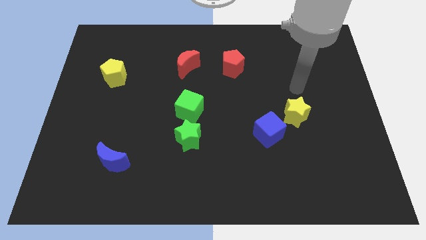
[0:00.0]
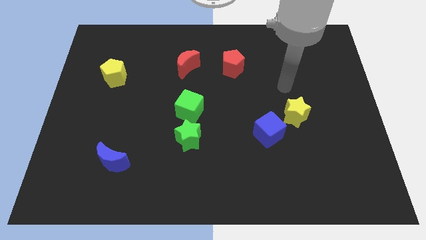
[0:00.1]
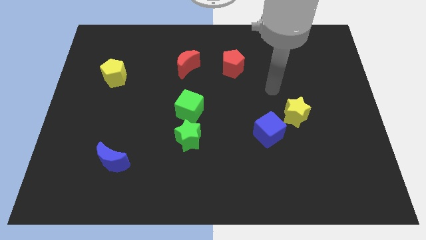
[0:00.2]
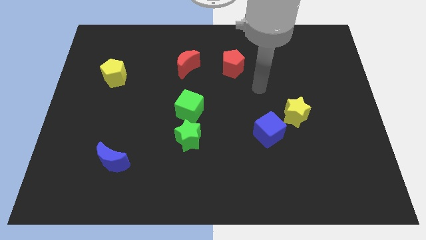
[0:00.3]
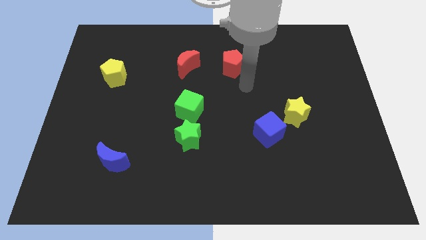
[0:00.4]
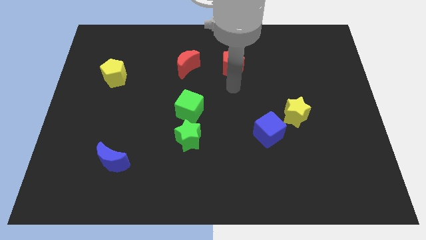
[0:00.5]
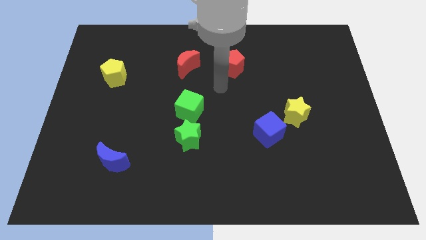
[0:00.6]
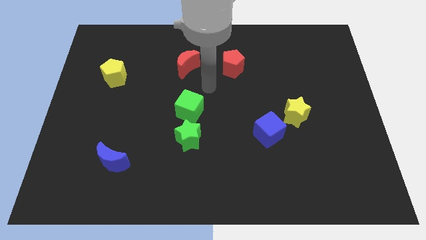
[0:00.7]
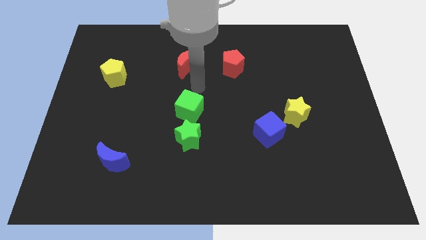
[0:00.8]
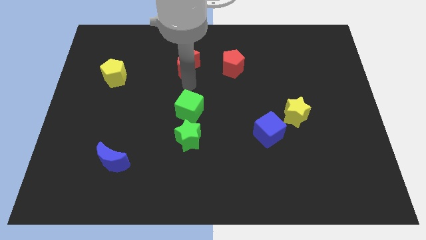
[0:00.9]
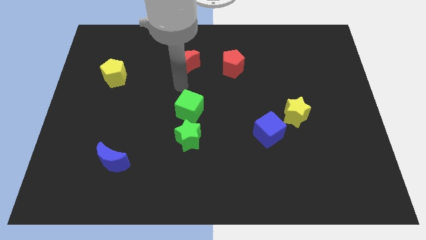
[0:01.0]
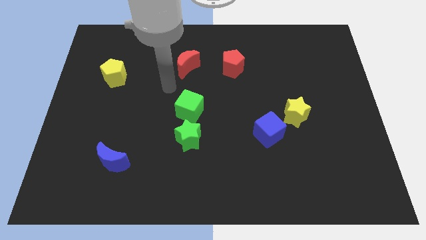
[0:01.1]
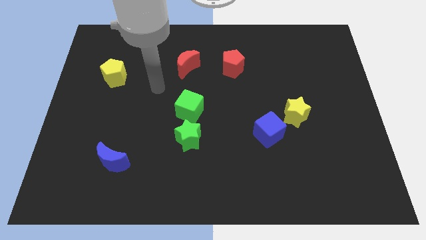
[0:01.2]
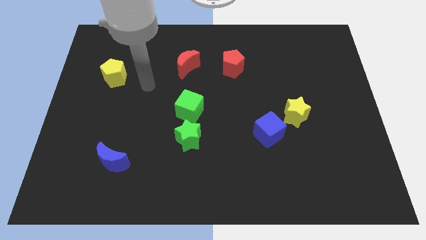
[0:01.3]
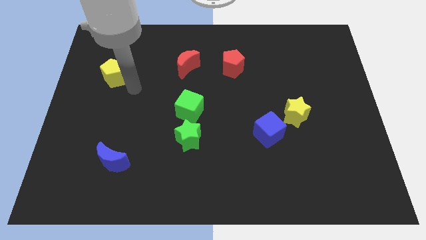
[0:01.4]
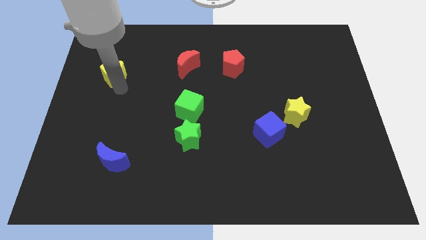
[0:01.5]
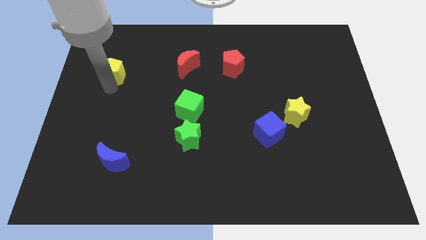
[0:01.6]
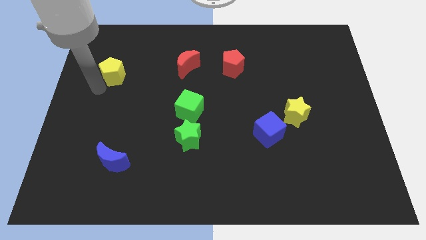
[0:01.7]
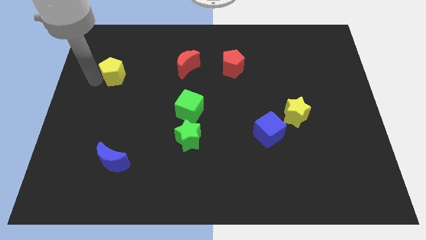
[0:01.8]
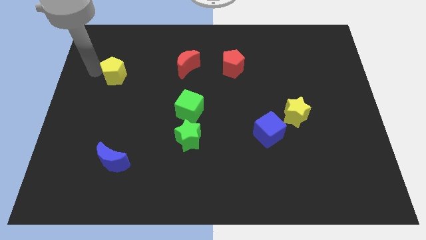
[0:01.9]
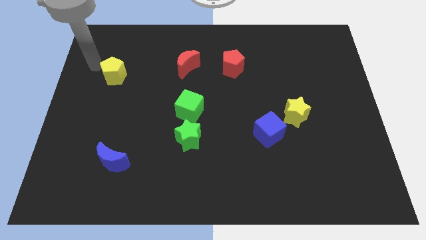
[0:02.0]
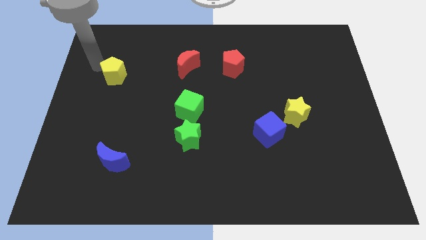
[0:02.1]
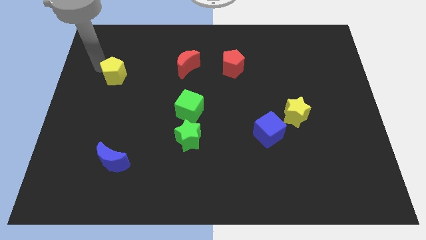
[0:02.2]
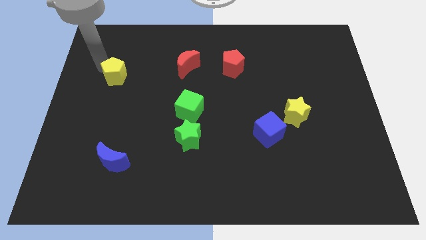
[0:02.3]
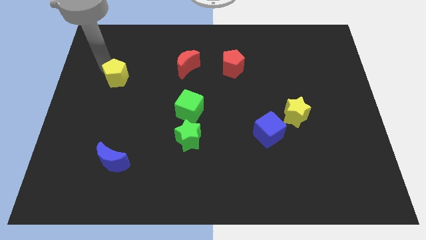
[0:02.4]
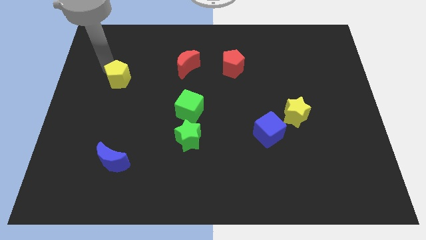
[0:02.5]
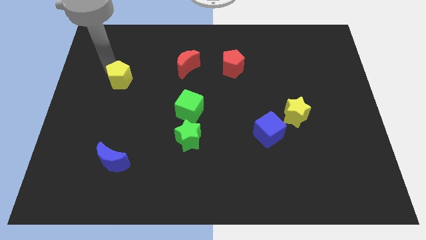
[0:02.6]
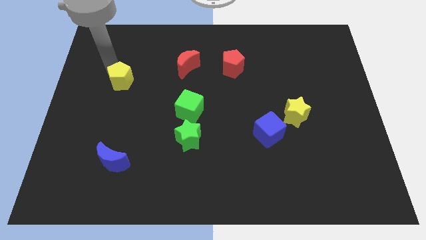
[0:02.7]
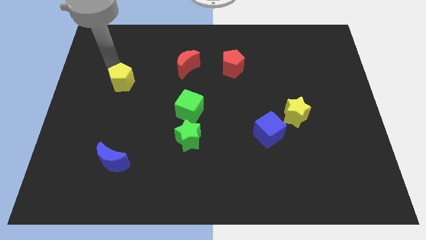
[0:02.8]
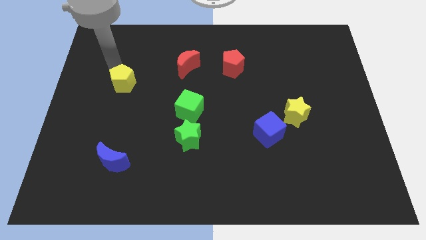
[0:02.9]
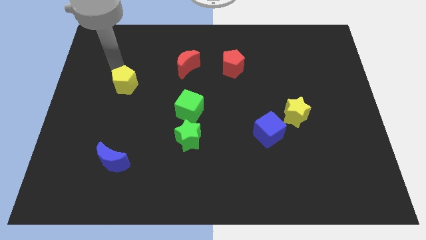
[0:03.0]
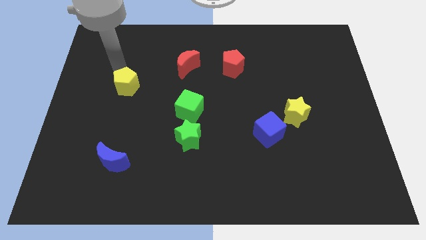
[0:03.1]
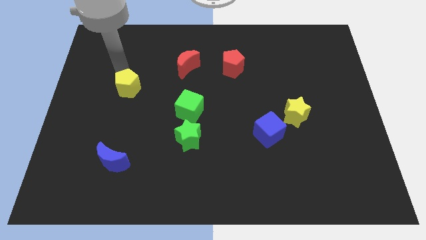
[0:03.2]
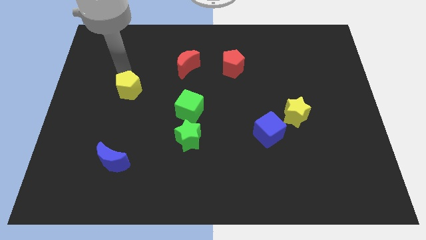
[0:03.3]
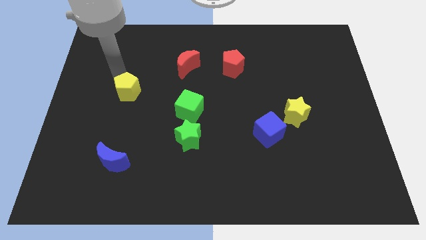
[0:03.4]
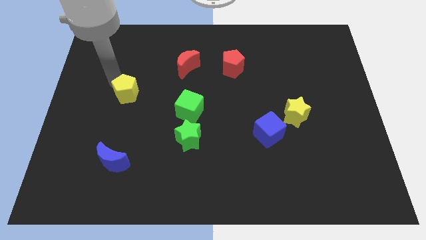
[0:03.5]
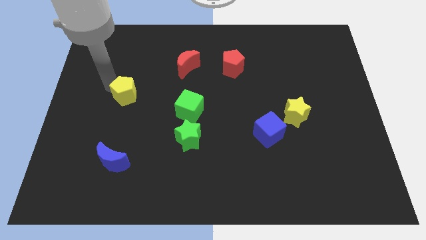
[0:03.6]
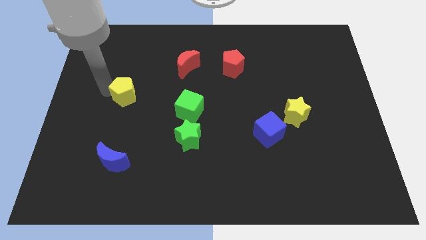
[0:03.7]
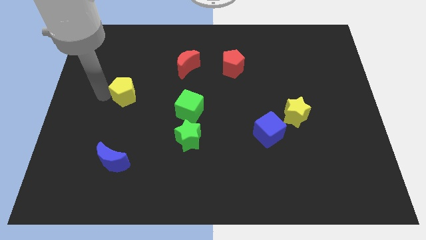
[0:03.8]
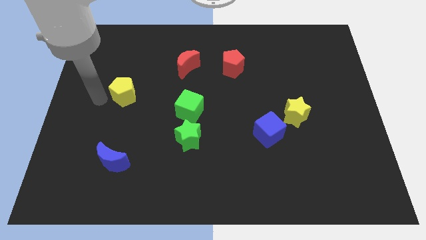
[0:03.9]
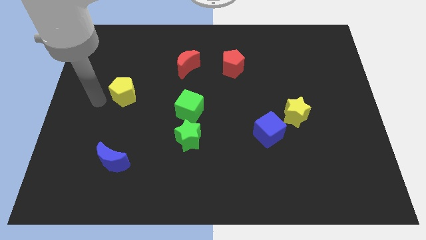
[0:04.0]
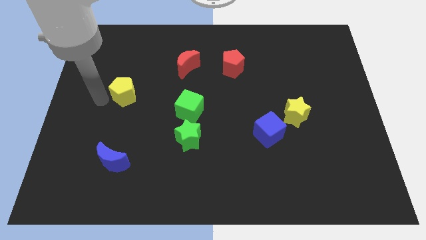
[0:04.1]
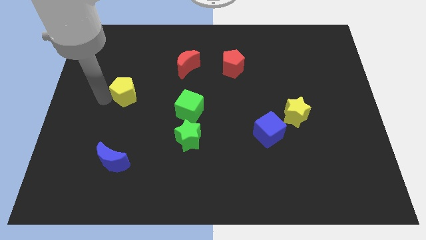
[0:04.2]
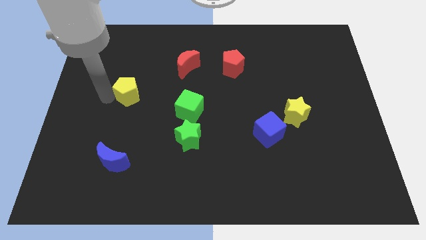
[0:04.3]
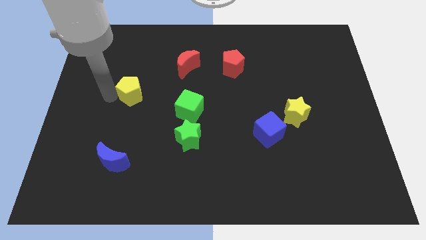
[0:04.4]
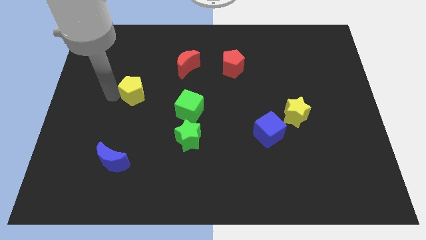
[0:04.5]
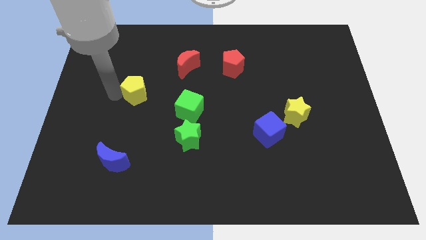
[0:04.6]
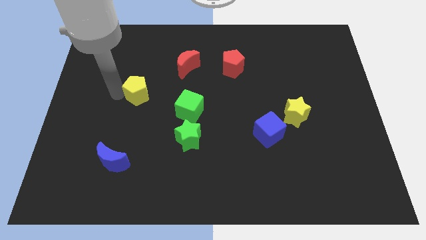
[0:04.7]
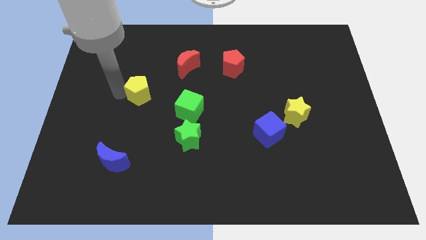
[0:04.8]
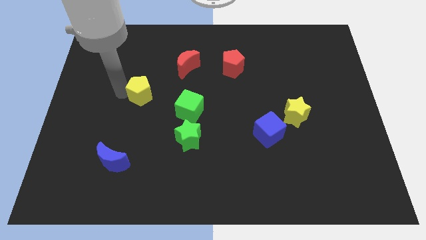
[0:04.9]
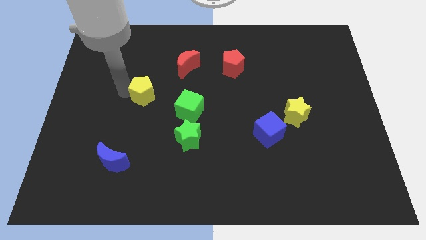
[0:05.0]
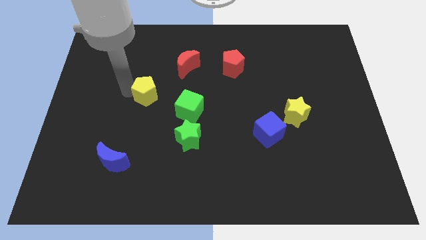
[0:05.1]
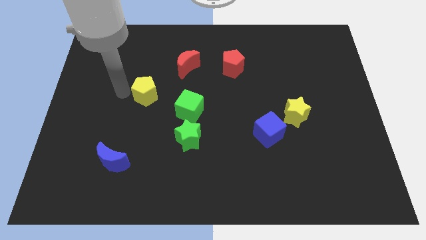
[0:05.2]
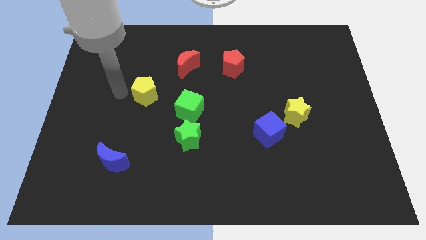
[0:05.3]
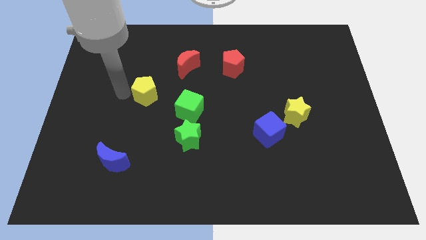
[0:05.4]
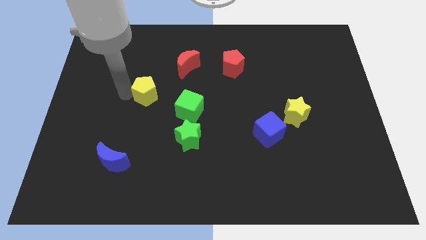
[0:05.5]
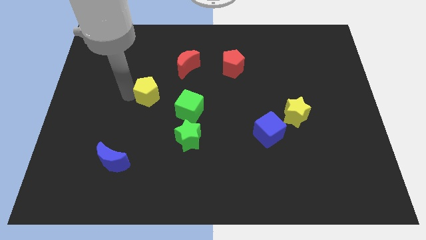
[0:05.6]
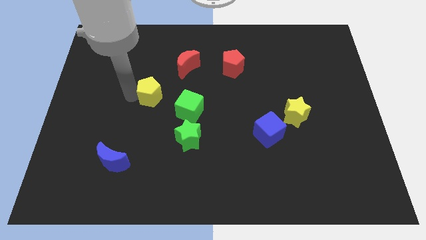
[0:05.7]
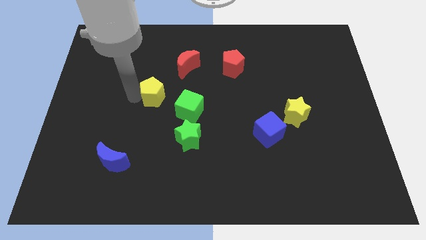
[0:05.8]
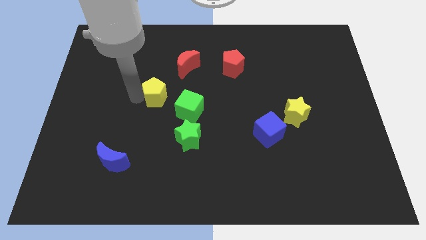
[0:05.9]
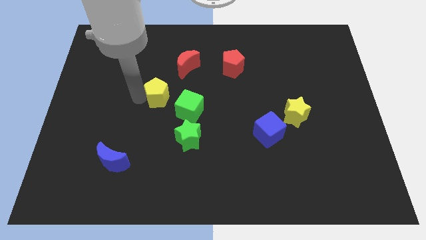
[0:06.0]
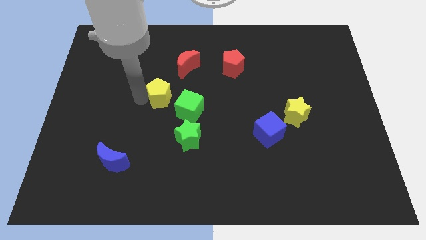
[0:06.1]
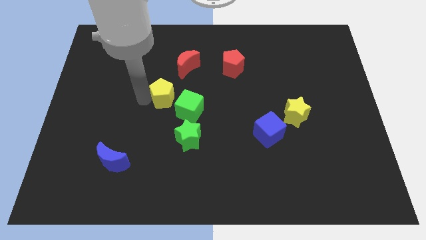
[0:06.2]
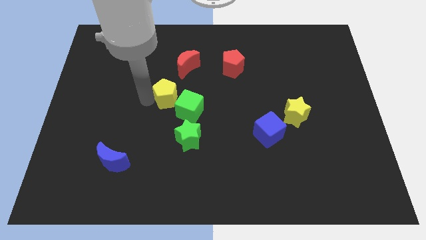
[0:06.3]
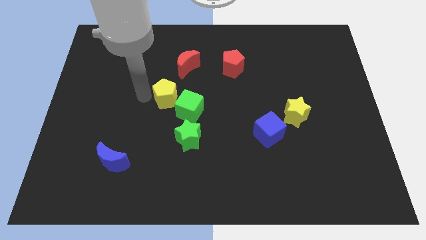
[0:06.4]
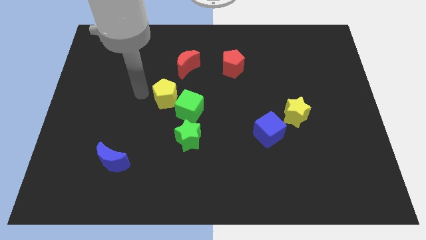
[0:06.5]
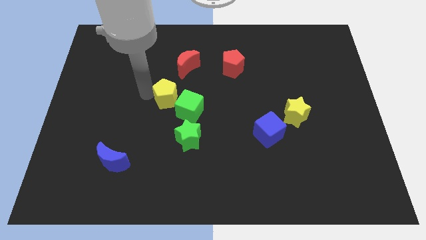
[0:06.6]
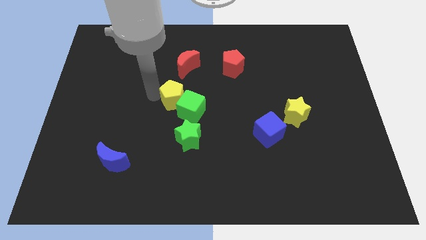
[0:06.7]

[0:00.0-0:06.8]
slide the yellow pentagon to the top of the green star
